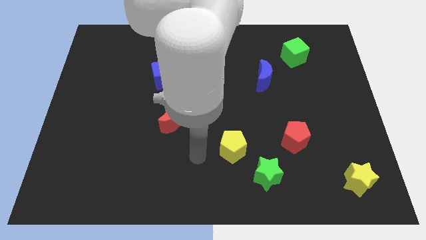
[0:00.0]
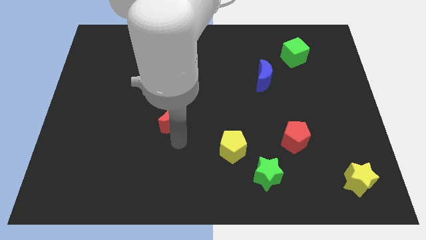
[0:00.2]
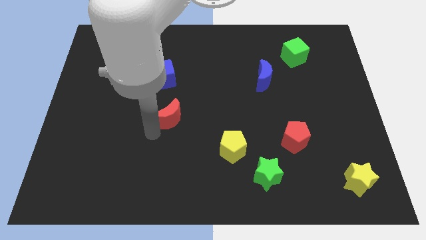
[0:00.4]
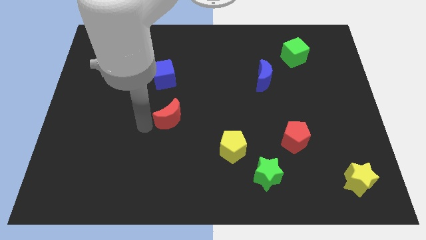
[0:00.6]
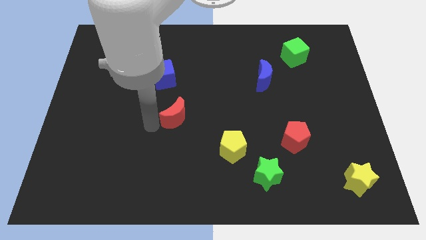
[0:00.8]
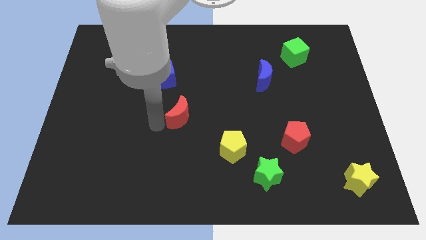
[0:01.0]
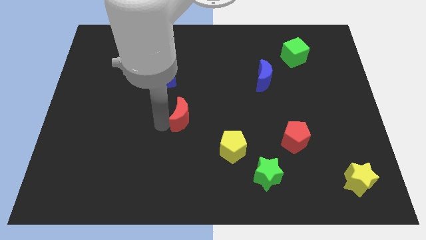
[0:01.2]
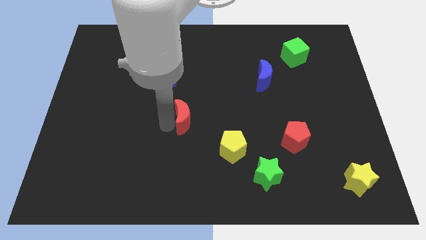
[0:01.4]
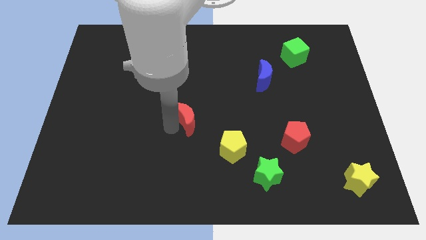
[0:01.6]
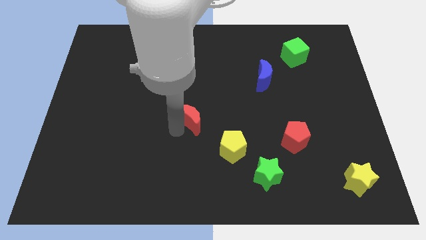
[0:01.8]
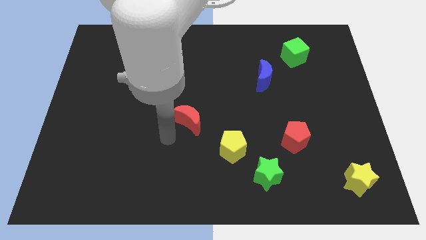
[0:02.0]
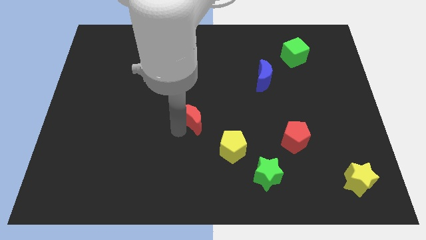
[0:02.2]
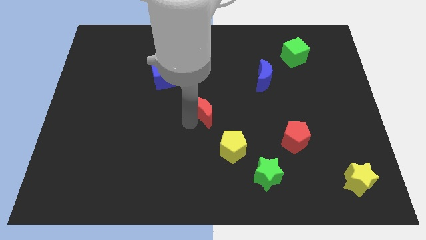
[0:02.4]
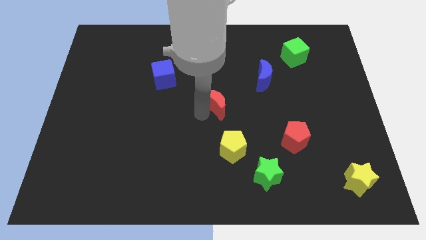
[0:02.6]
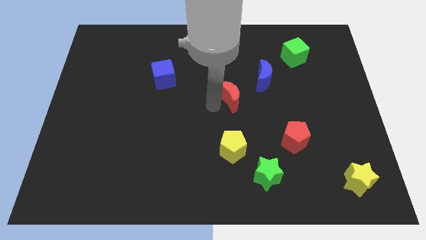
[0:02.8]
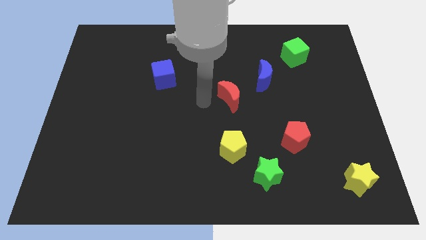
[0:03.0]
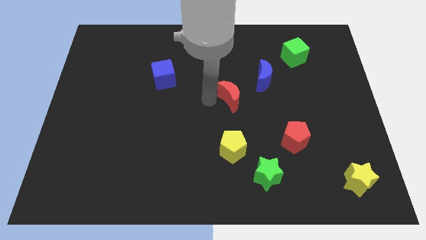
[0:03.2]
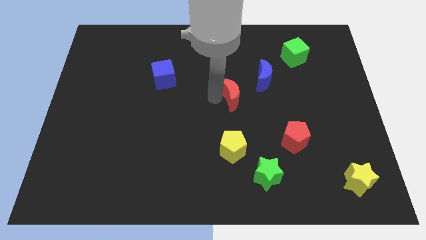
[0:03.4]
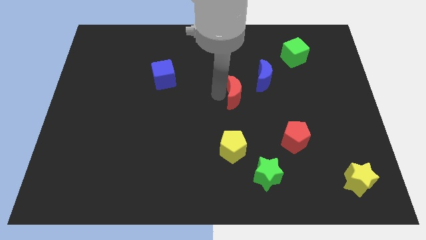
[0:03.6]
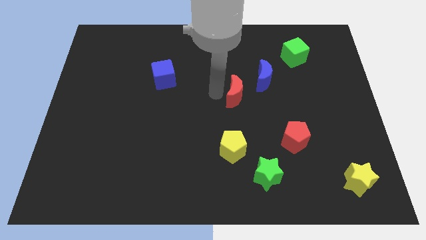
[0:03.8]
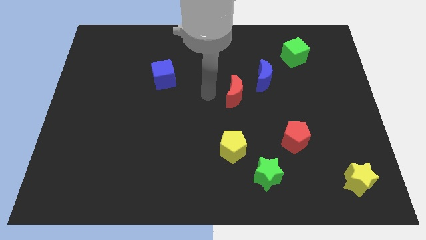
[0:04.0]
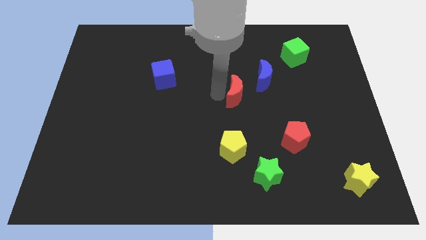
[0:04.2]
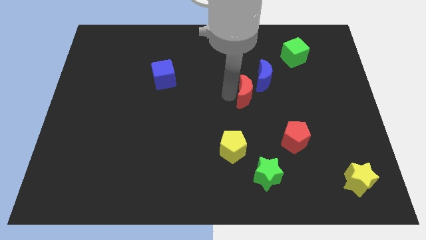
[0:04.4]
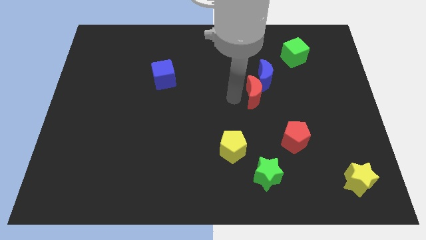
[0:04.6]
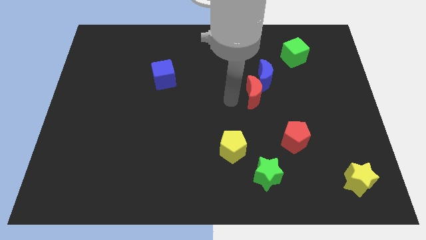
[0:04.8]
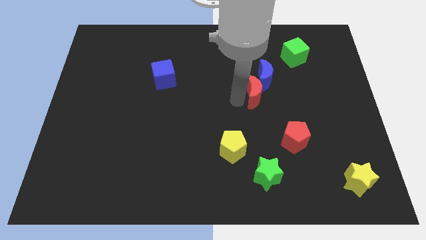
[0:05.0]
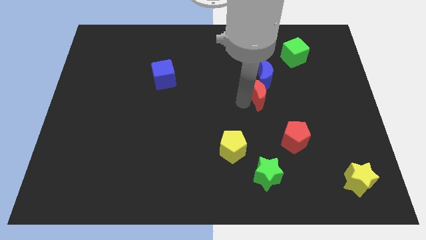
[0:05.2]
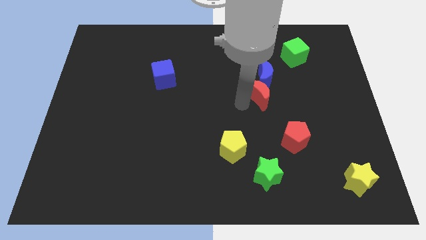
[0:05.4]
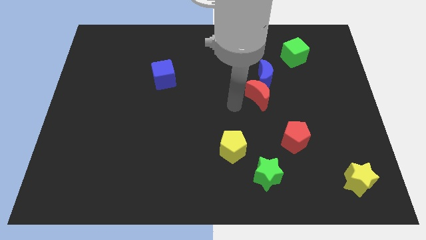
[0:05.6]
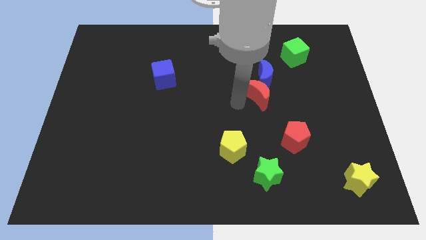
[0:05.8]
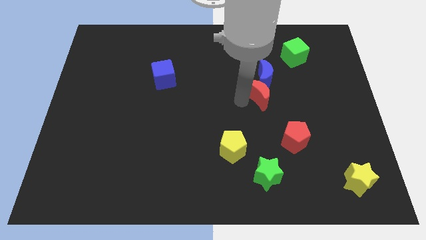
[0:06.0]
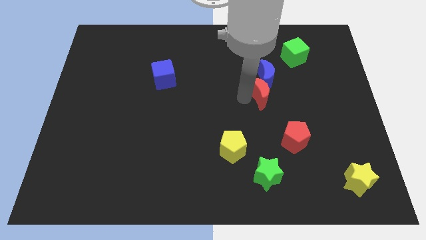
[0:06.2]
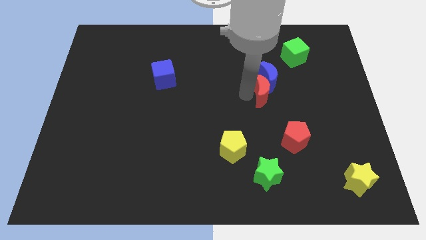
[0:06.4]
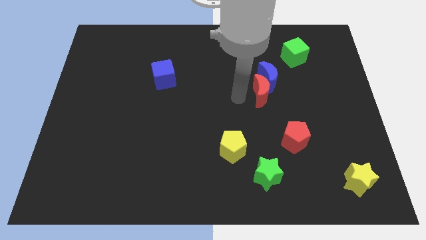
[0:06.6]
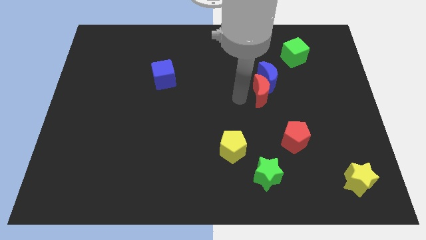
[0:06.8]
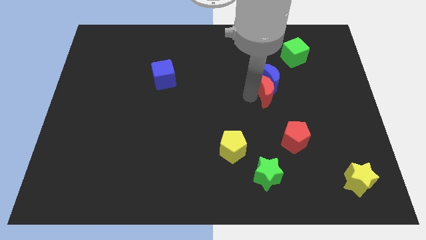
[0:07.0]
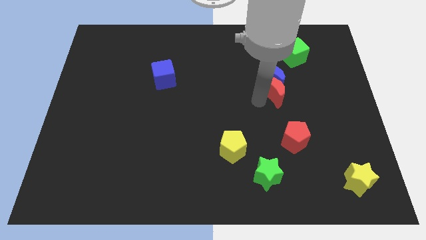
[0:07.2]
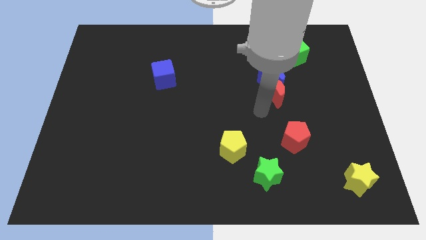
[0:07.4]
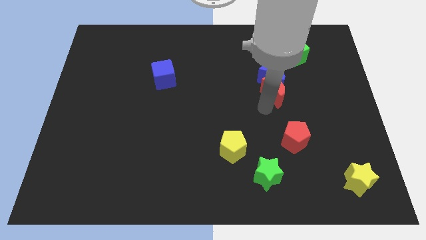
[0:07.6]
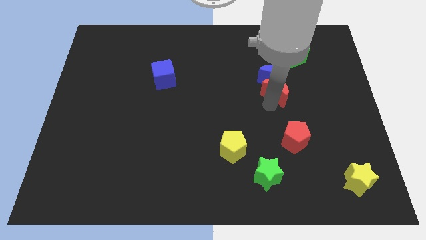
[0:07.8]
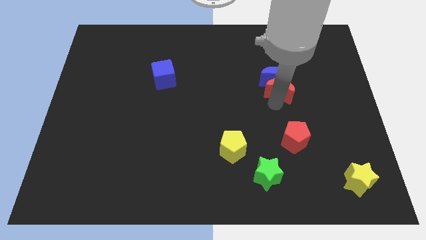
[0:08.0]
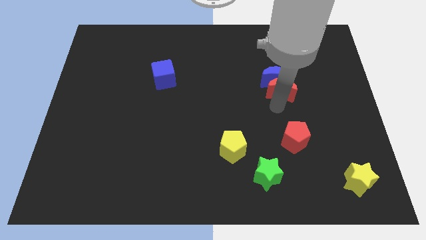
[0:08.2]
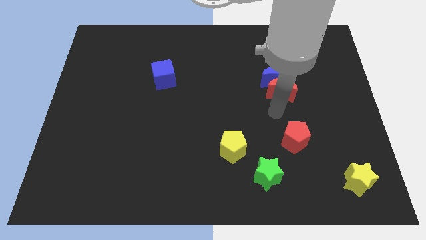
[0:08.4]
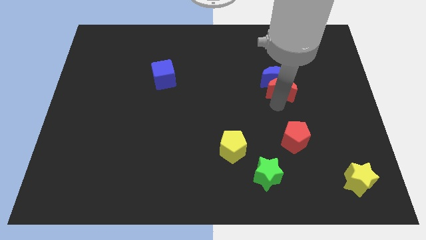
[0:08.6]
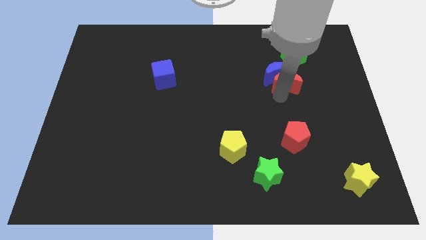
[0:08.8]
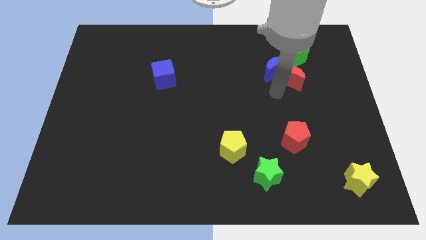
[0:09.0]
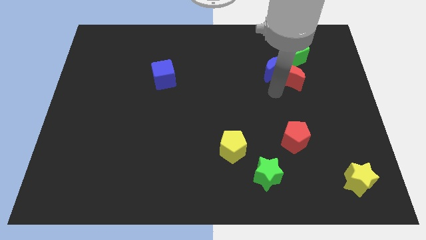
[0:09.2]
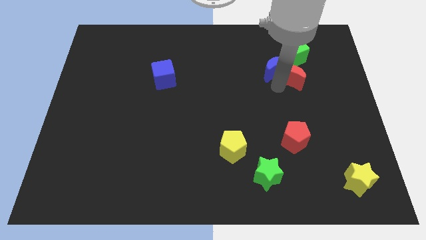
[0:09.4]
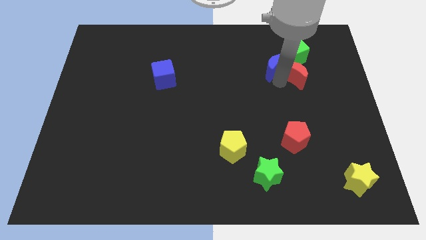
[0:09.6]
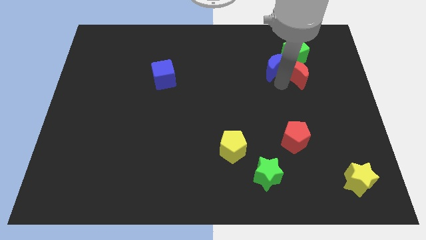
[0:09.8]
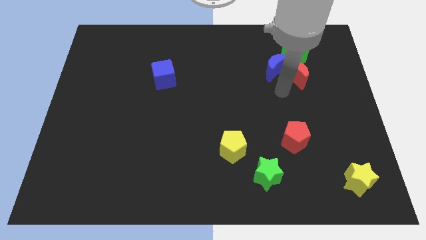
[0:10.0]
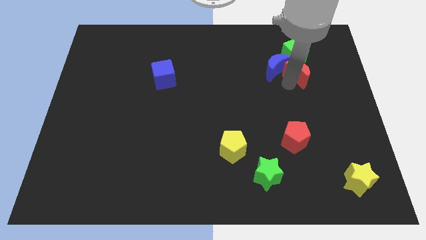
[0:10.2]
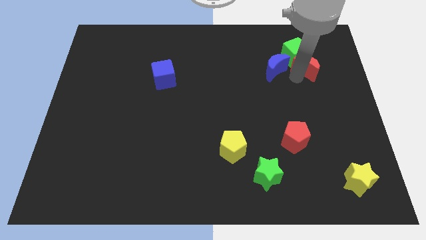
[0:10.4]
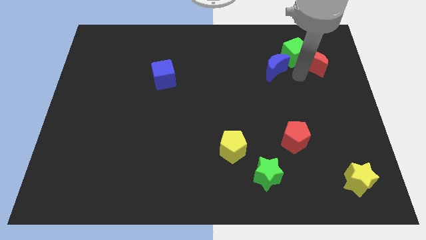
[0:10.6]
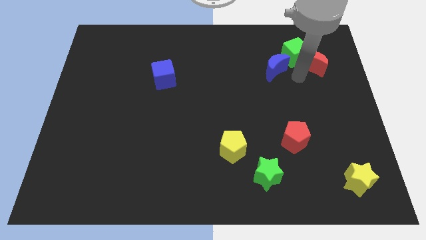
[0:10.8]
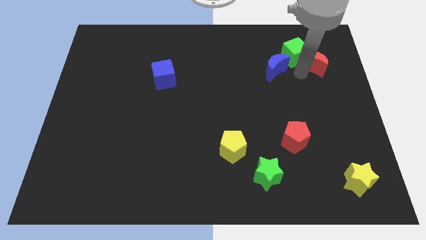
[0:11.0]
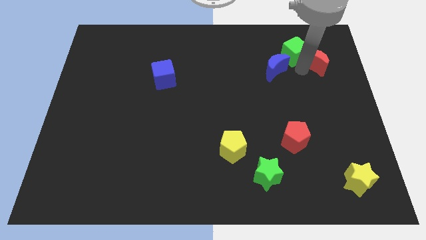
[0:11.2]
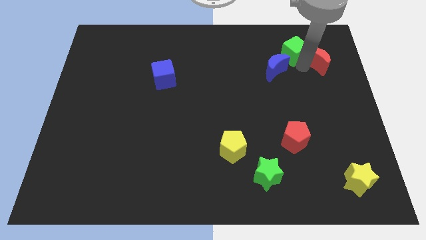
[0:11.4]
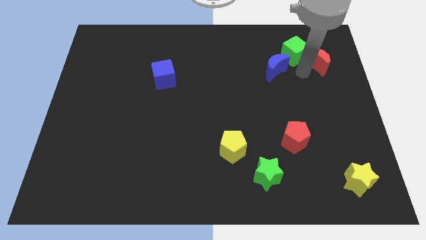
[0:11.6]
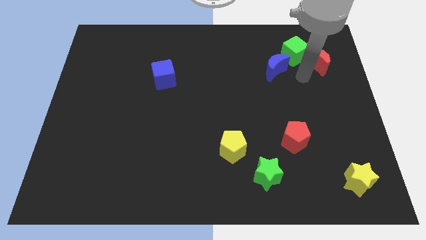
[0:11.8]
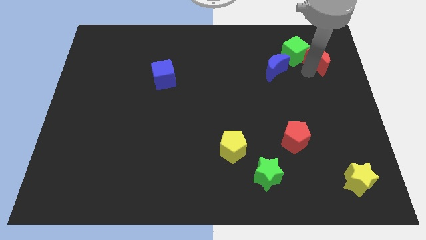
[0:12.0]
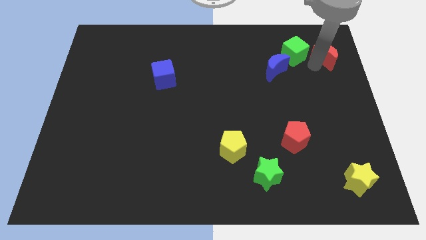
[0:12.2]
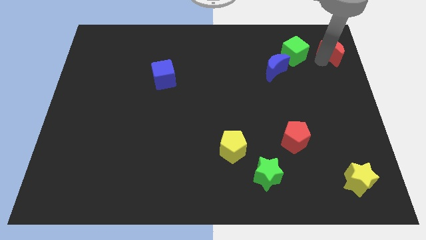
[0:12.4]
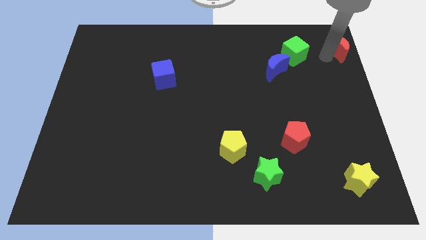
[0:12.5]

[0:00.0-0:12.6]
put the red moon to the upper right corner

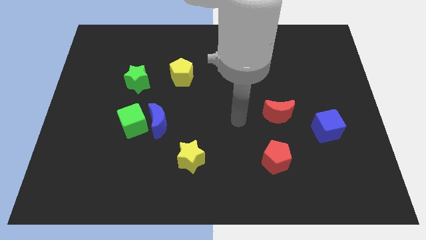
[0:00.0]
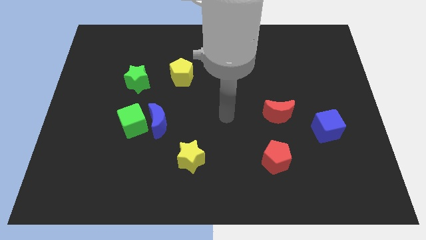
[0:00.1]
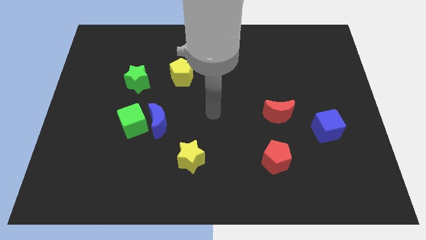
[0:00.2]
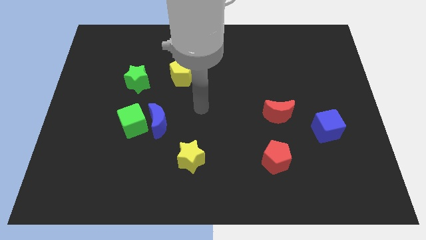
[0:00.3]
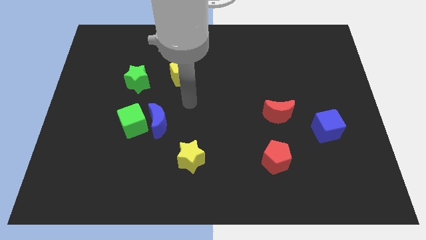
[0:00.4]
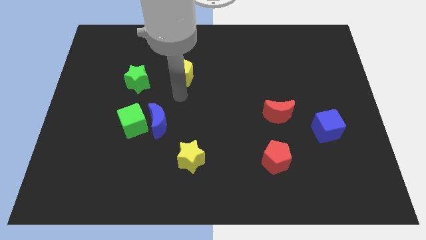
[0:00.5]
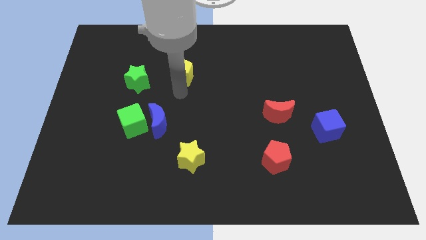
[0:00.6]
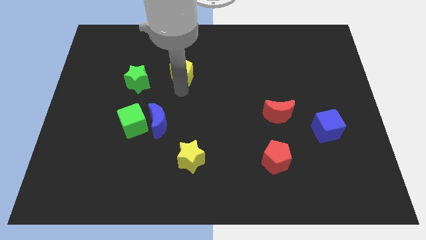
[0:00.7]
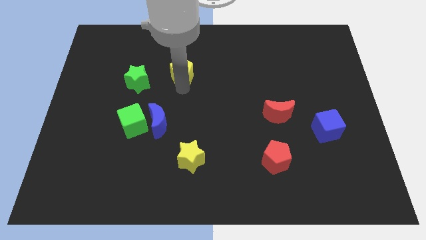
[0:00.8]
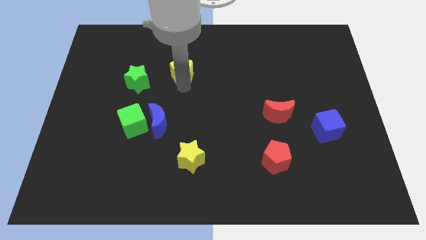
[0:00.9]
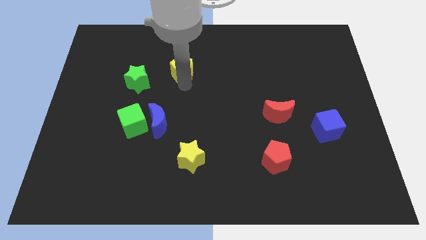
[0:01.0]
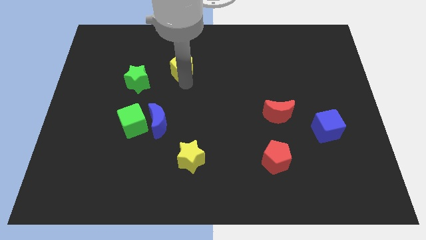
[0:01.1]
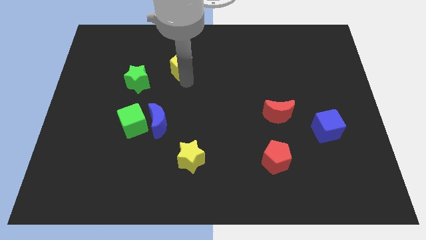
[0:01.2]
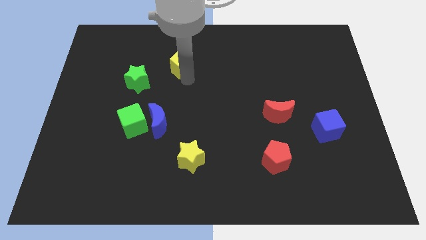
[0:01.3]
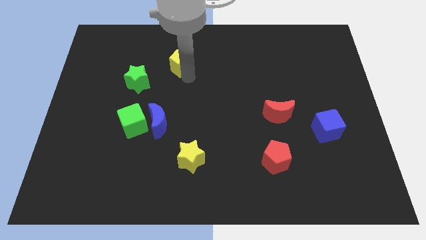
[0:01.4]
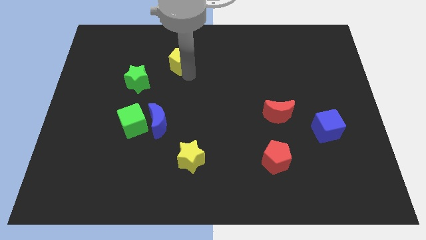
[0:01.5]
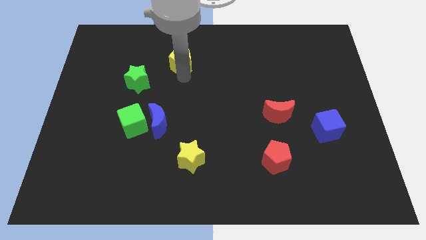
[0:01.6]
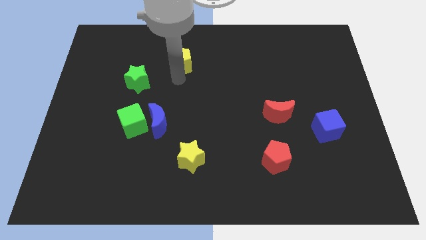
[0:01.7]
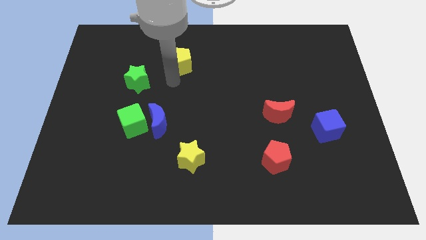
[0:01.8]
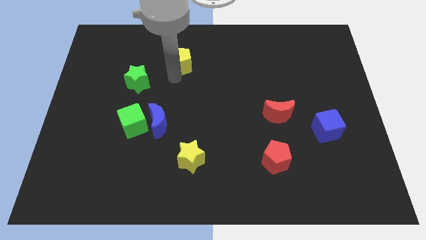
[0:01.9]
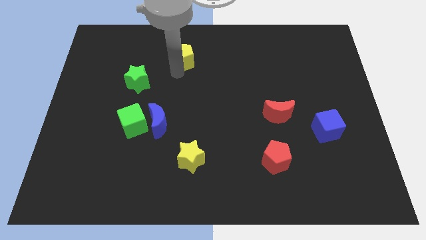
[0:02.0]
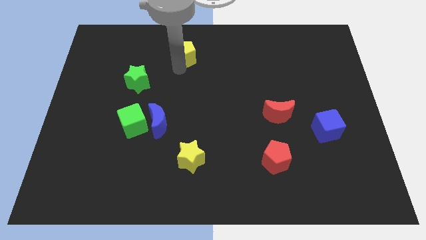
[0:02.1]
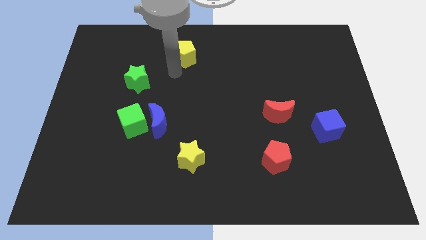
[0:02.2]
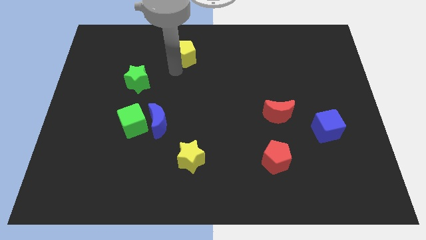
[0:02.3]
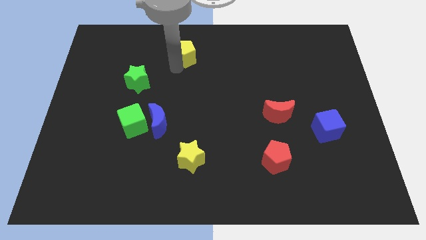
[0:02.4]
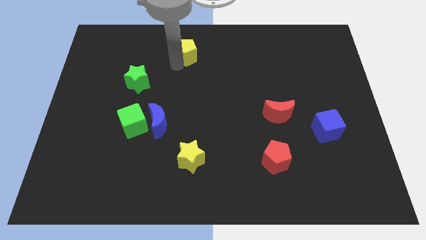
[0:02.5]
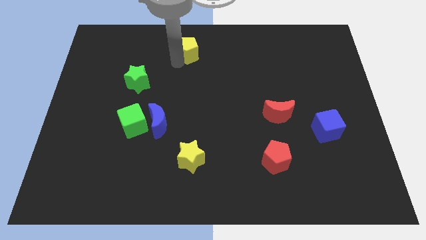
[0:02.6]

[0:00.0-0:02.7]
move the yellow pentagon to the towards your base
